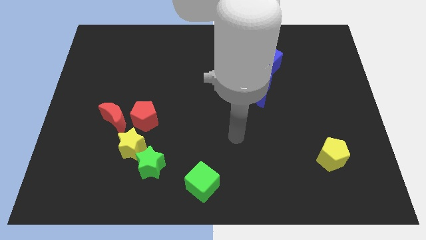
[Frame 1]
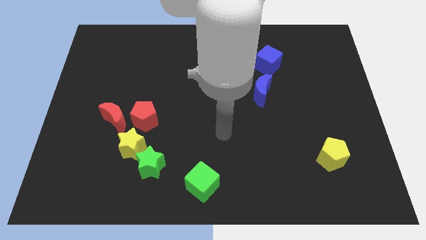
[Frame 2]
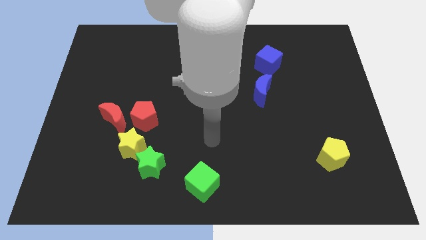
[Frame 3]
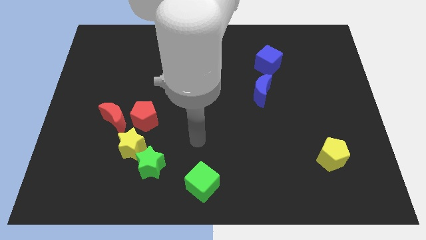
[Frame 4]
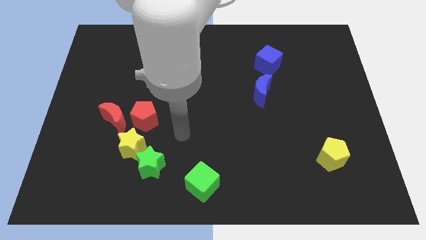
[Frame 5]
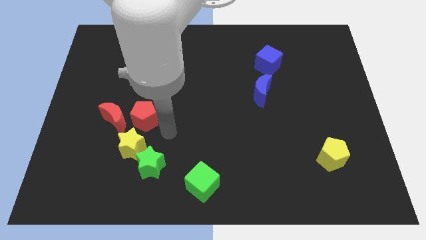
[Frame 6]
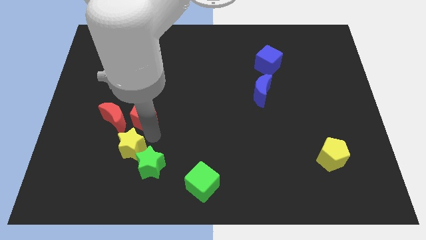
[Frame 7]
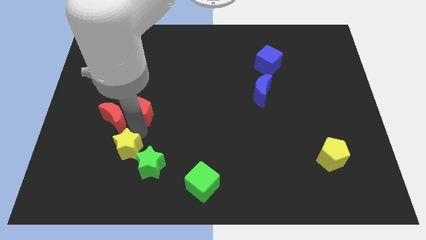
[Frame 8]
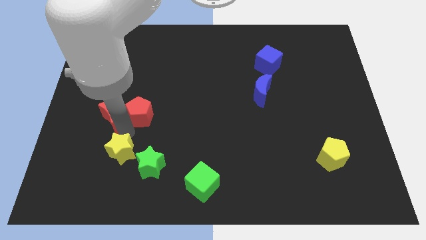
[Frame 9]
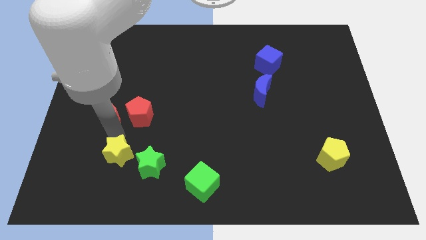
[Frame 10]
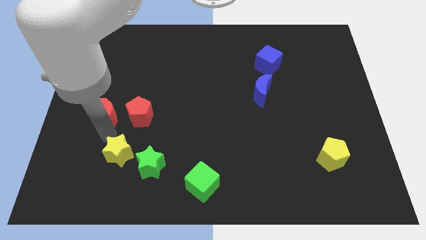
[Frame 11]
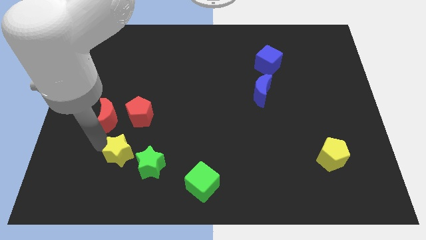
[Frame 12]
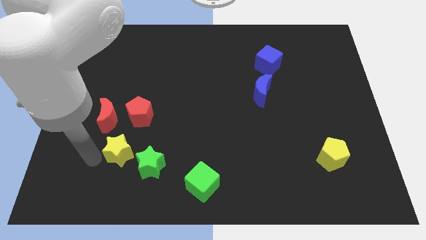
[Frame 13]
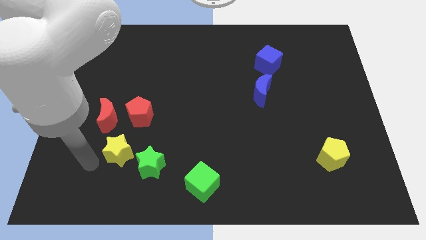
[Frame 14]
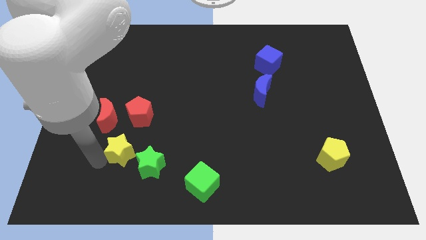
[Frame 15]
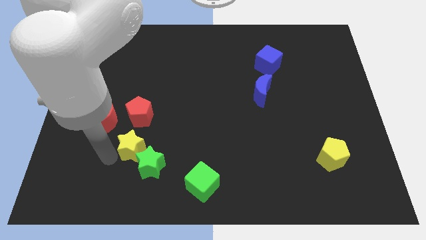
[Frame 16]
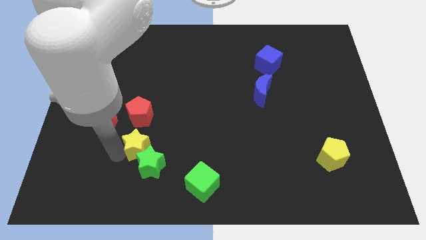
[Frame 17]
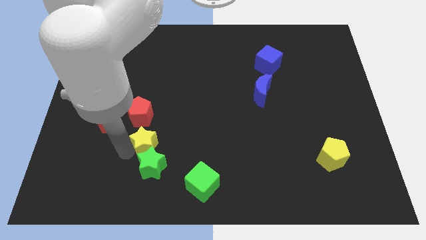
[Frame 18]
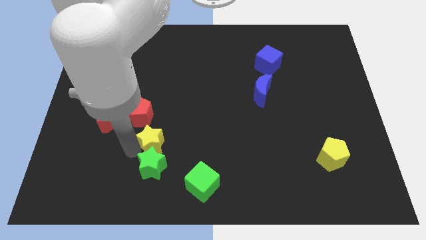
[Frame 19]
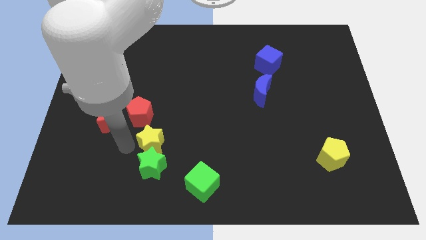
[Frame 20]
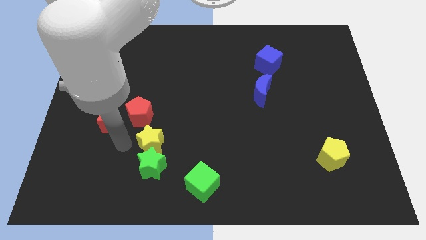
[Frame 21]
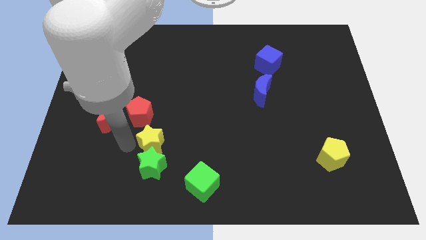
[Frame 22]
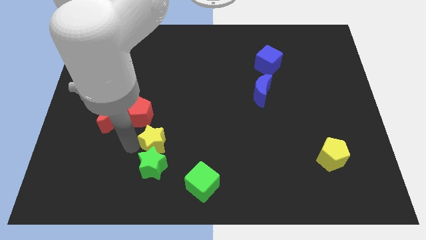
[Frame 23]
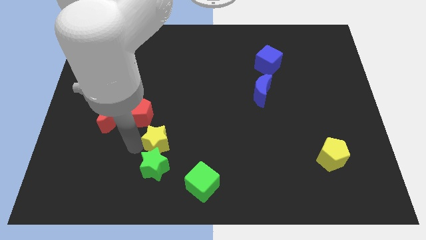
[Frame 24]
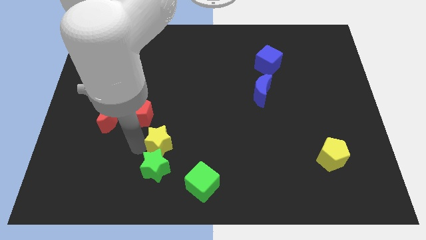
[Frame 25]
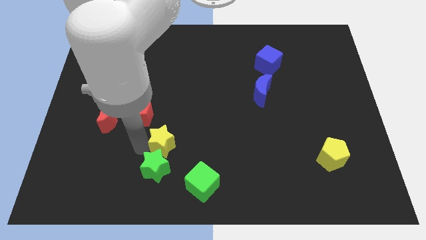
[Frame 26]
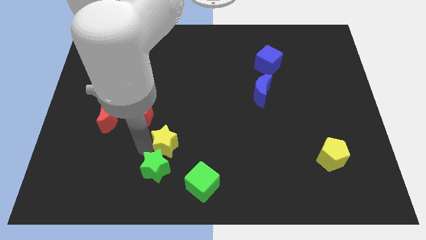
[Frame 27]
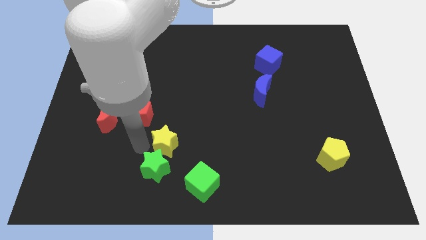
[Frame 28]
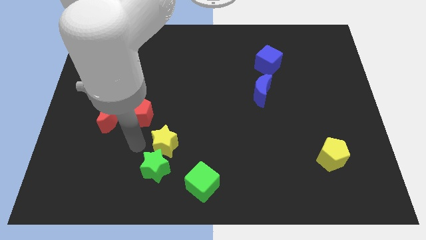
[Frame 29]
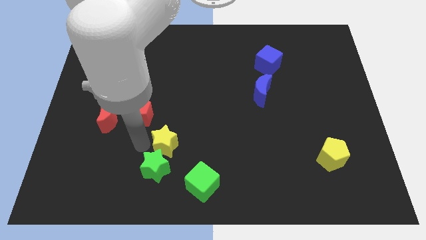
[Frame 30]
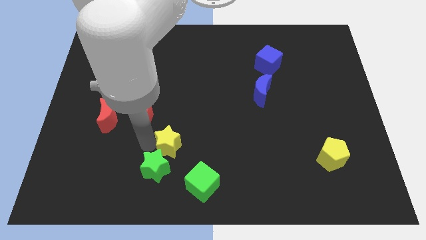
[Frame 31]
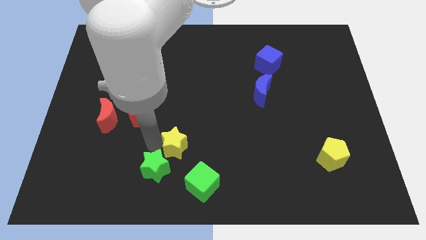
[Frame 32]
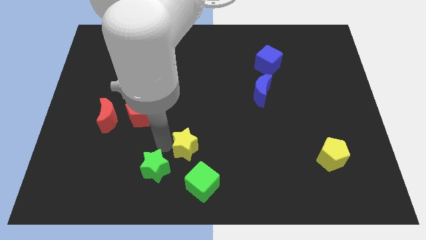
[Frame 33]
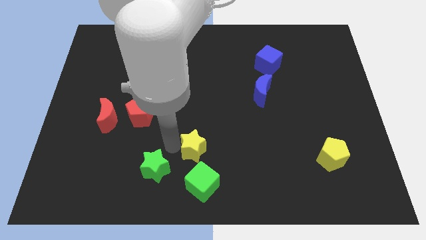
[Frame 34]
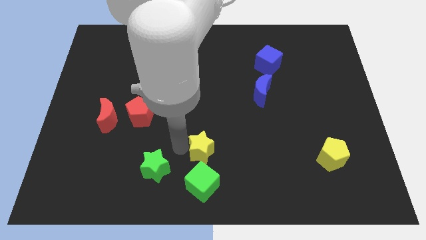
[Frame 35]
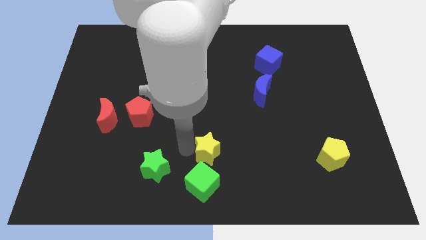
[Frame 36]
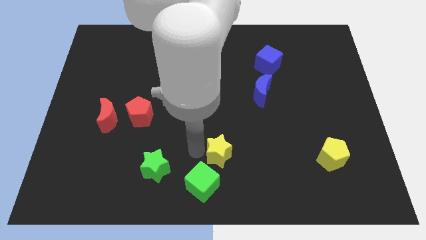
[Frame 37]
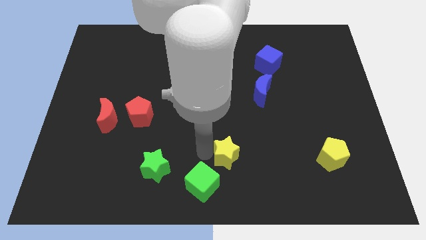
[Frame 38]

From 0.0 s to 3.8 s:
move the yellow star right

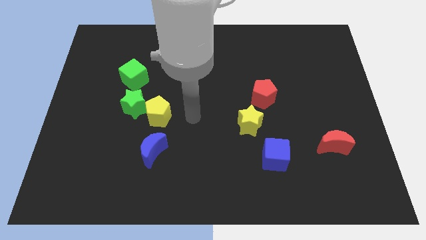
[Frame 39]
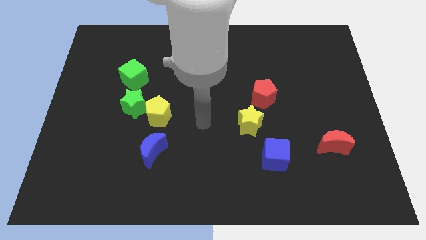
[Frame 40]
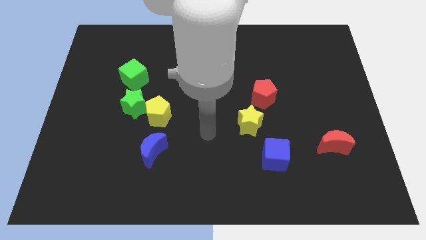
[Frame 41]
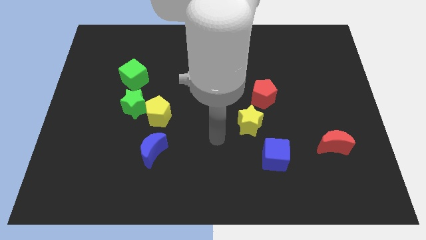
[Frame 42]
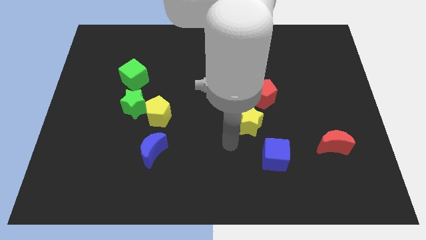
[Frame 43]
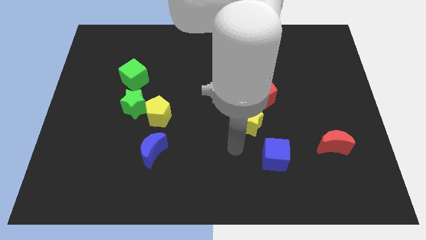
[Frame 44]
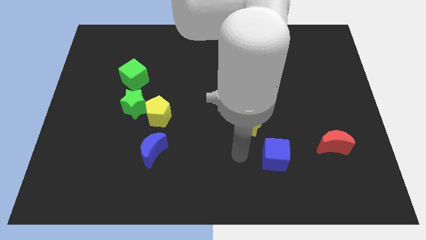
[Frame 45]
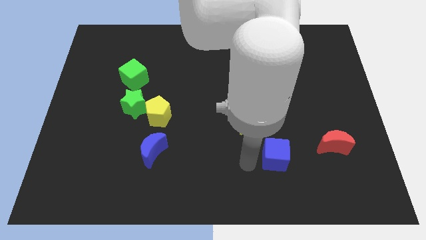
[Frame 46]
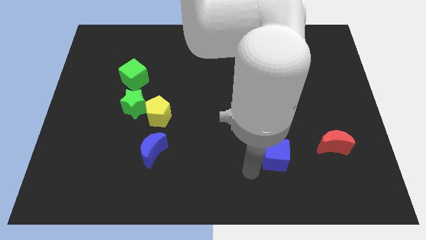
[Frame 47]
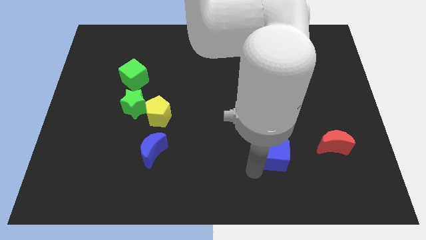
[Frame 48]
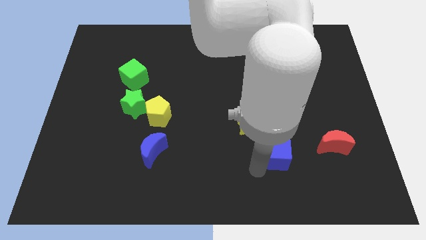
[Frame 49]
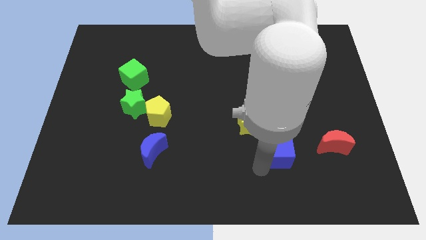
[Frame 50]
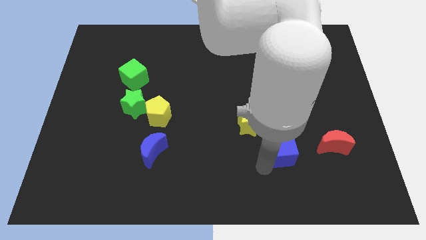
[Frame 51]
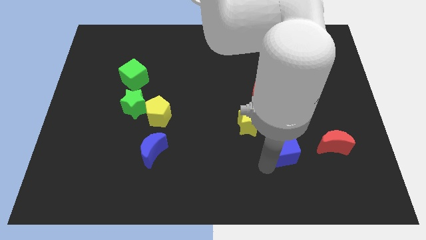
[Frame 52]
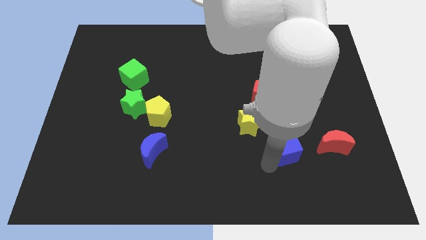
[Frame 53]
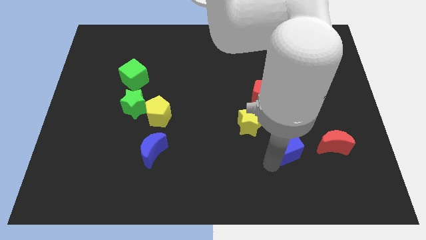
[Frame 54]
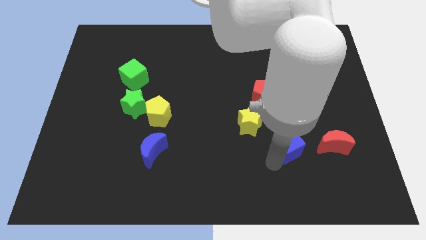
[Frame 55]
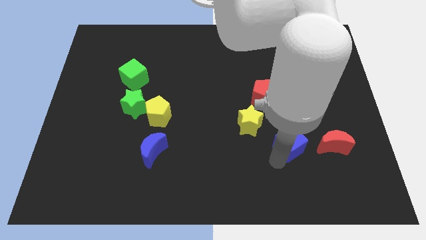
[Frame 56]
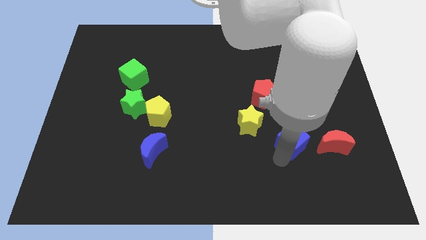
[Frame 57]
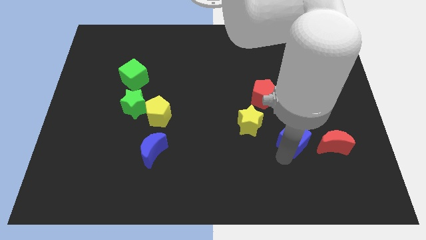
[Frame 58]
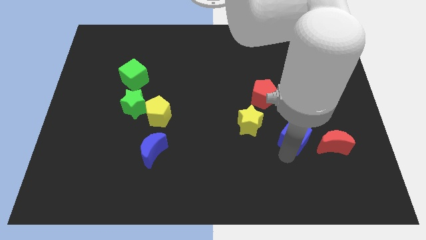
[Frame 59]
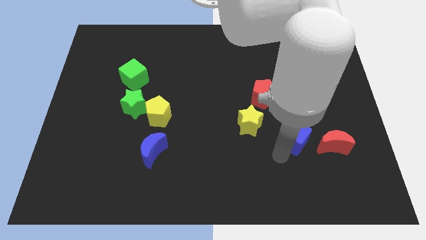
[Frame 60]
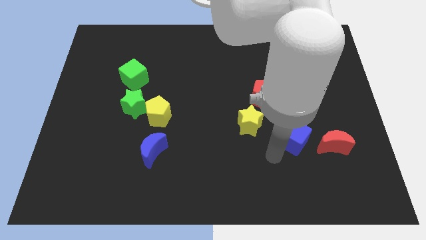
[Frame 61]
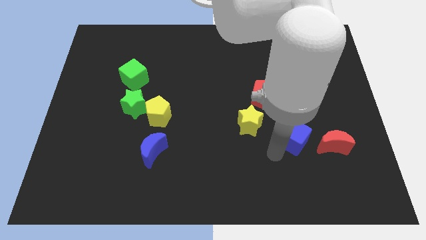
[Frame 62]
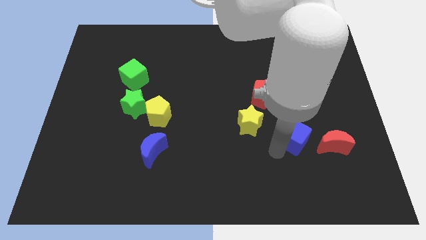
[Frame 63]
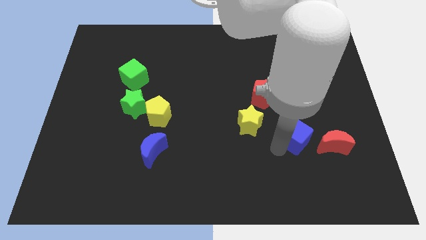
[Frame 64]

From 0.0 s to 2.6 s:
push the blue cube somewhat up and right

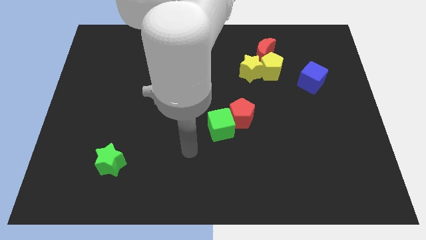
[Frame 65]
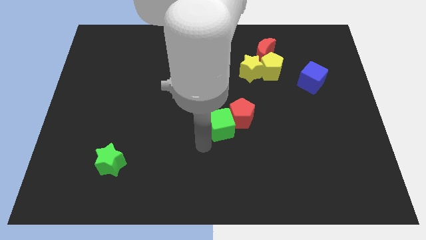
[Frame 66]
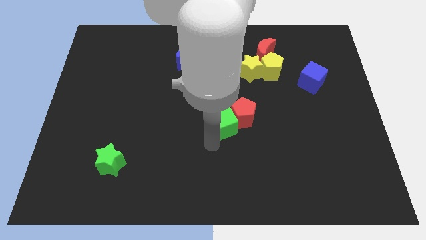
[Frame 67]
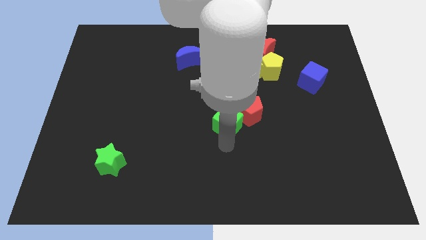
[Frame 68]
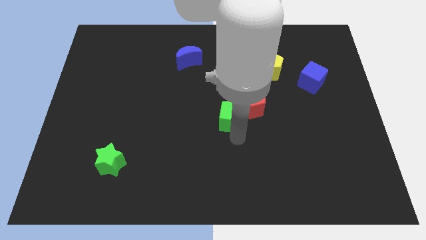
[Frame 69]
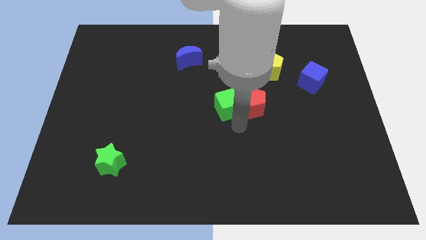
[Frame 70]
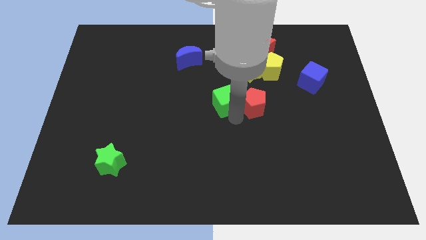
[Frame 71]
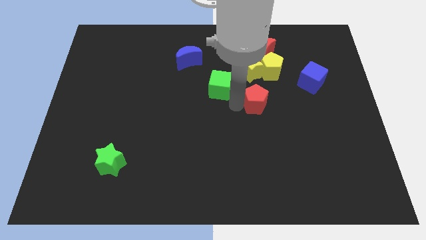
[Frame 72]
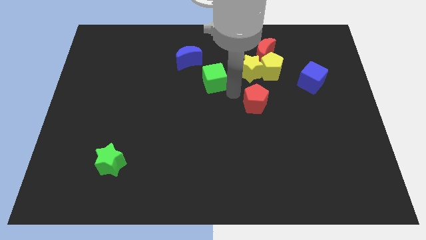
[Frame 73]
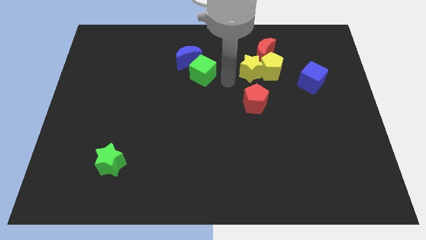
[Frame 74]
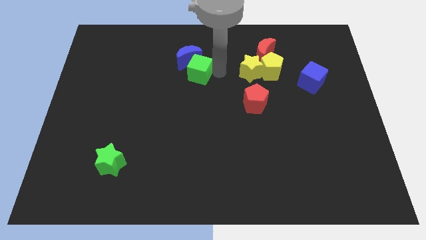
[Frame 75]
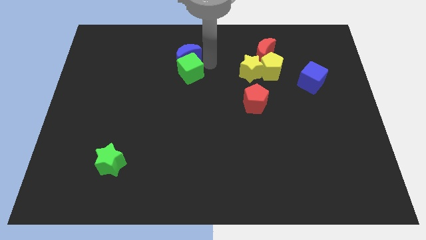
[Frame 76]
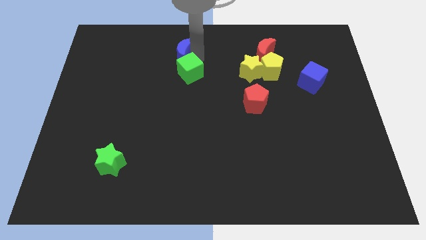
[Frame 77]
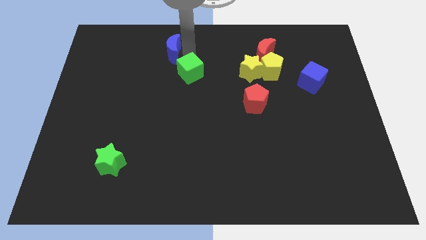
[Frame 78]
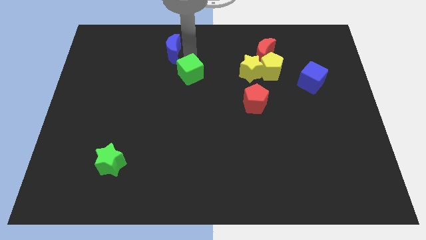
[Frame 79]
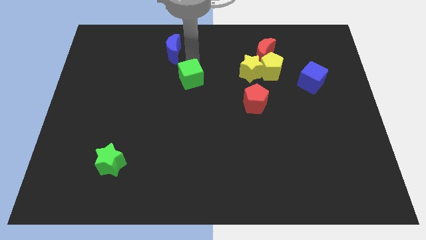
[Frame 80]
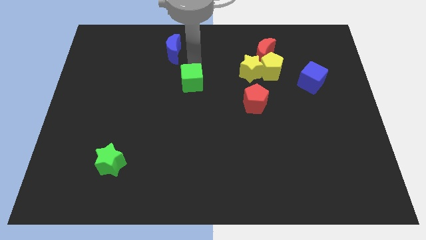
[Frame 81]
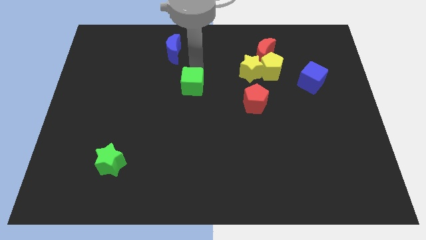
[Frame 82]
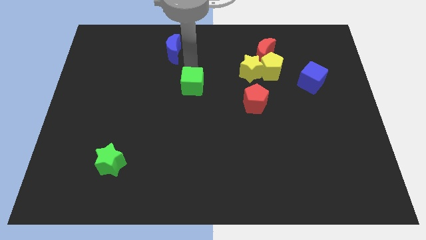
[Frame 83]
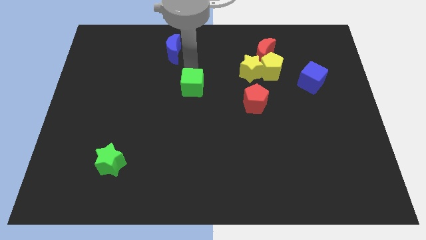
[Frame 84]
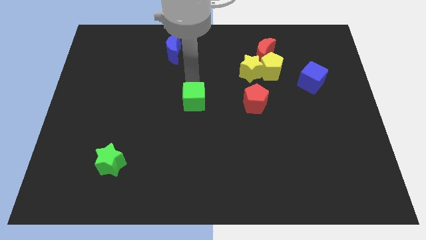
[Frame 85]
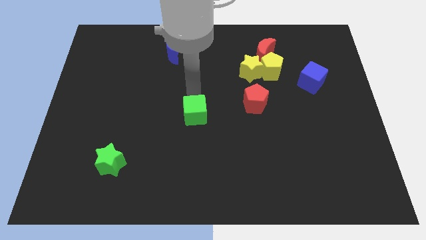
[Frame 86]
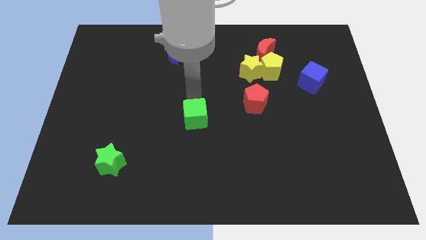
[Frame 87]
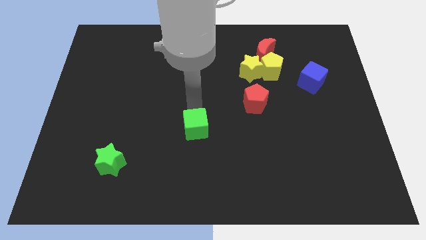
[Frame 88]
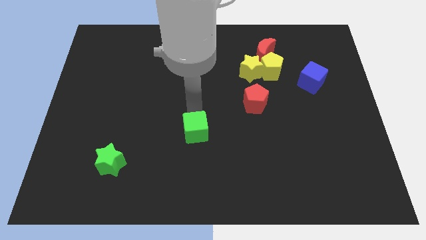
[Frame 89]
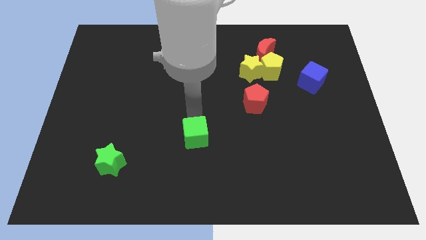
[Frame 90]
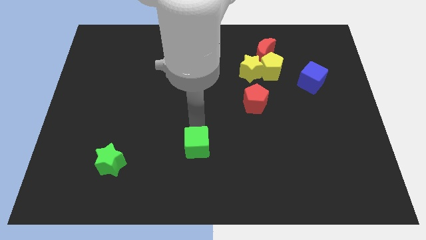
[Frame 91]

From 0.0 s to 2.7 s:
push the green cube a little down and to the left
